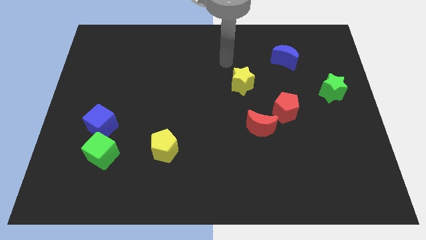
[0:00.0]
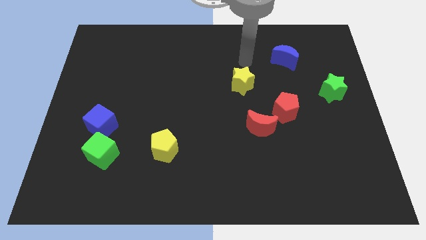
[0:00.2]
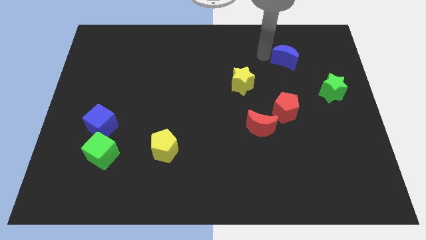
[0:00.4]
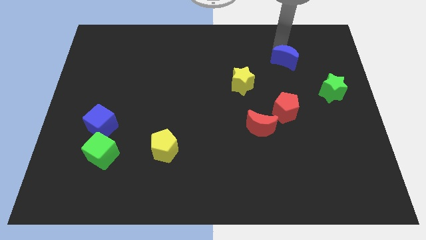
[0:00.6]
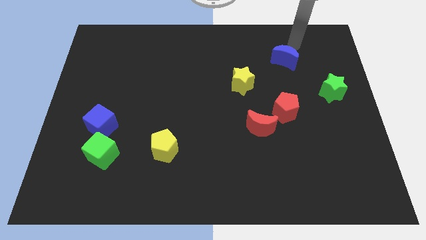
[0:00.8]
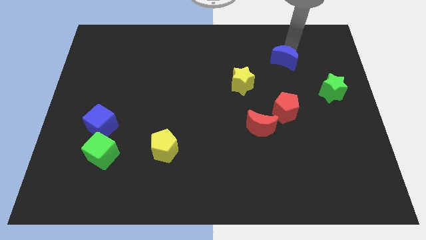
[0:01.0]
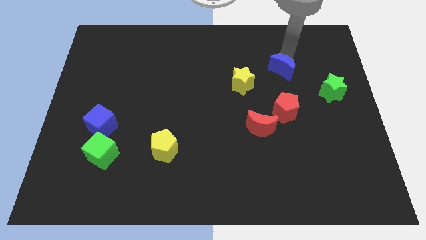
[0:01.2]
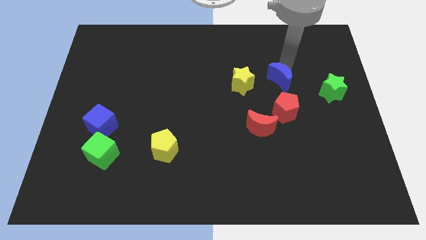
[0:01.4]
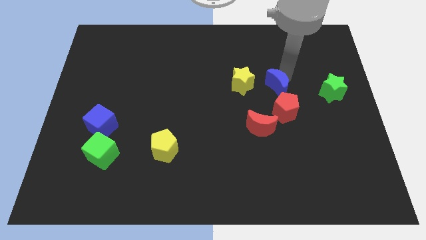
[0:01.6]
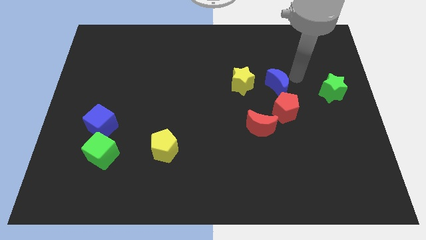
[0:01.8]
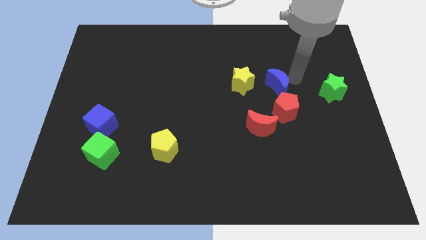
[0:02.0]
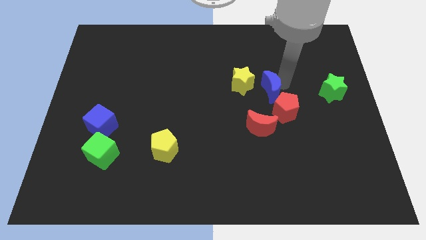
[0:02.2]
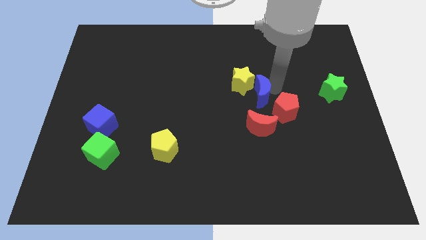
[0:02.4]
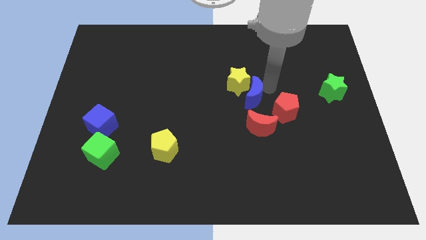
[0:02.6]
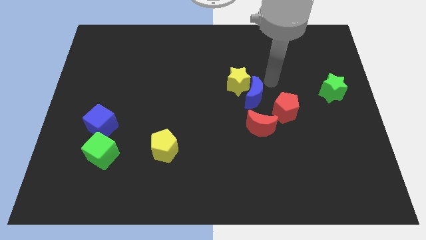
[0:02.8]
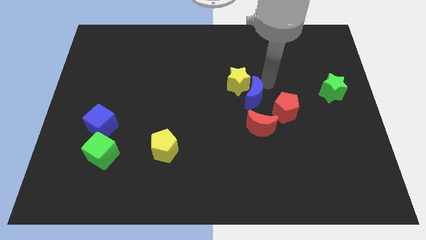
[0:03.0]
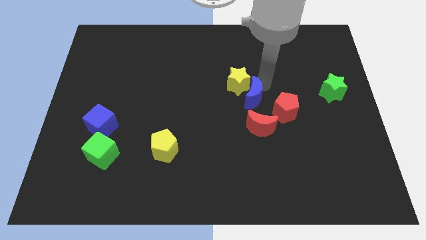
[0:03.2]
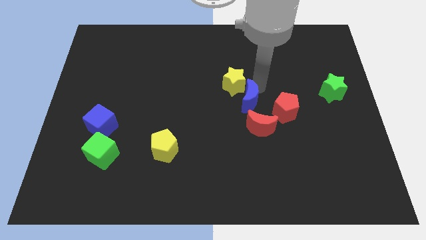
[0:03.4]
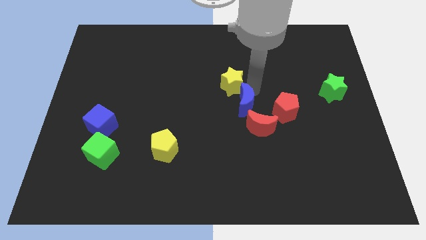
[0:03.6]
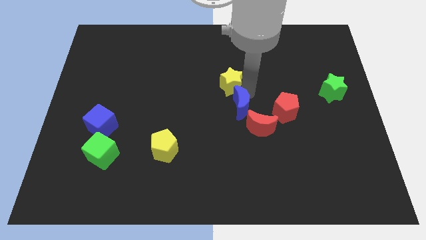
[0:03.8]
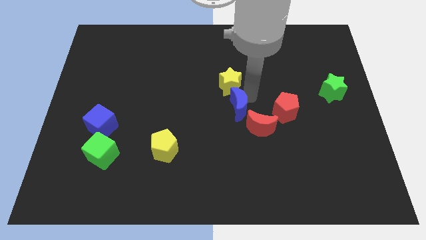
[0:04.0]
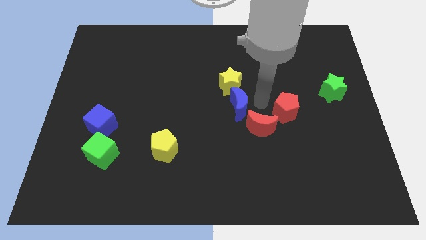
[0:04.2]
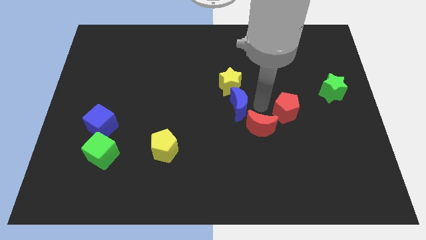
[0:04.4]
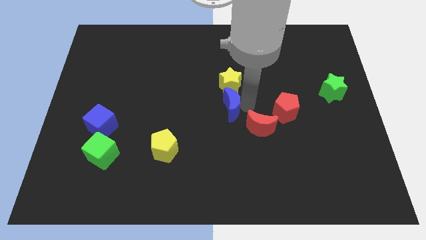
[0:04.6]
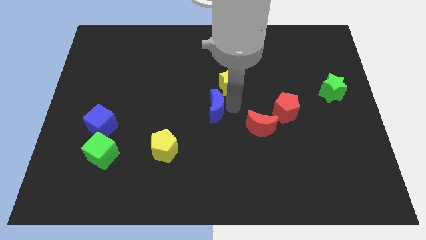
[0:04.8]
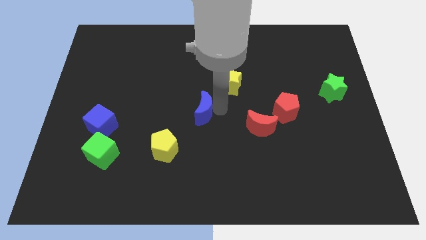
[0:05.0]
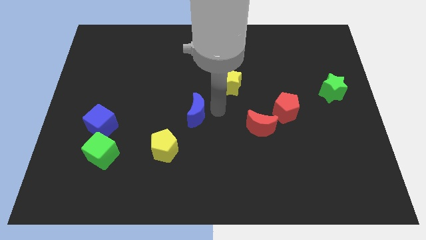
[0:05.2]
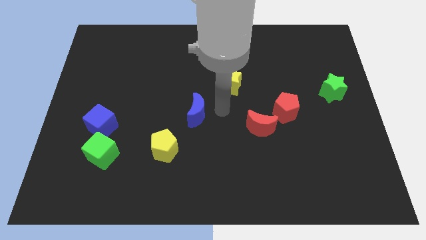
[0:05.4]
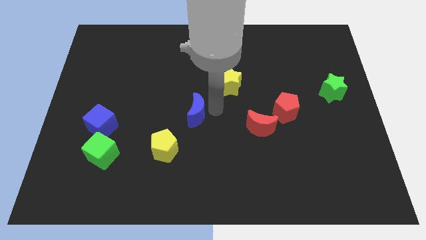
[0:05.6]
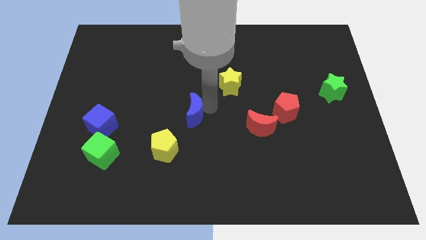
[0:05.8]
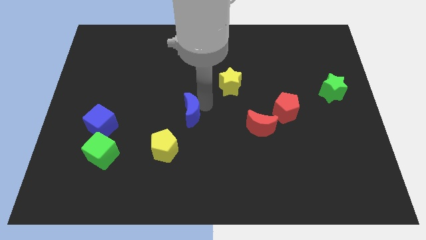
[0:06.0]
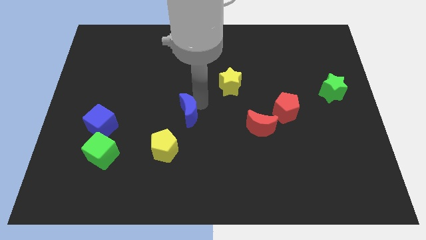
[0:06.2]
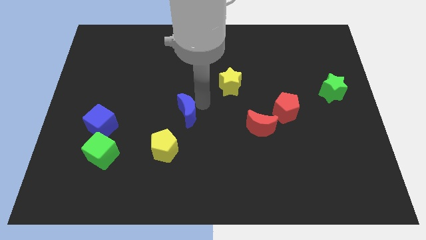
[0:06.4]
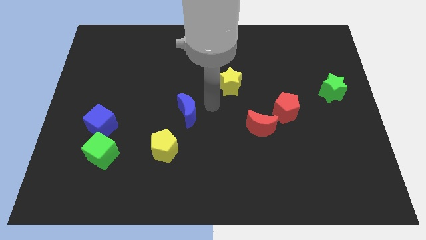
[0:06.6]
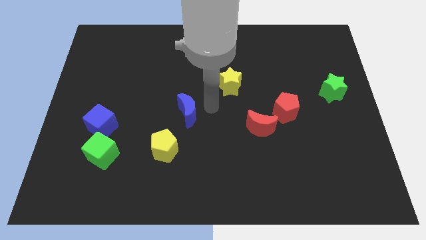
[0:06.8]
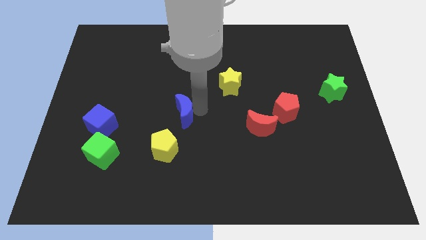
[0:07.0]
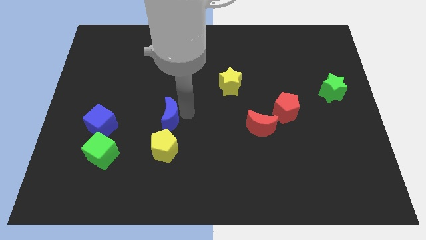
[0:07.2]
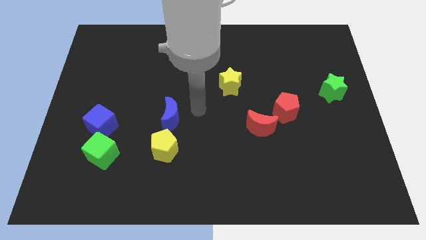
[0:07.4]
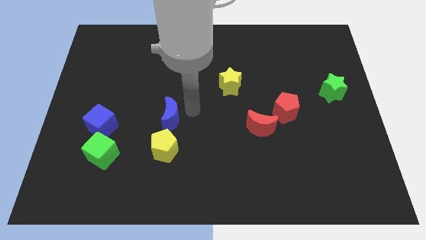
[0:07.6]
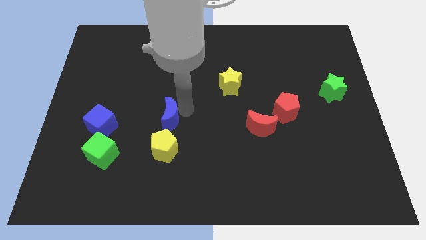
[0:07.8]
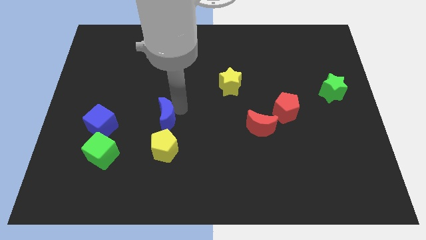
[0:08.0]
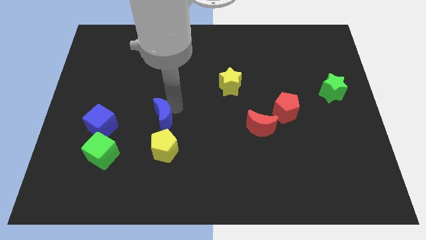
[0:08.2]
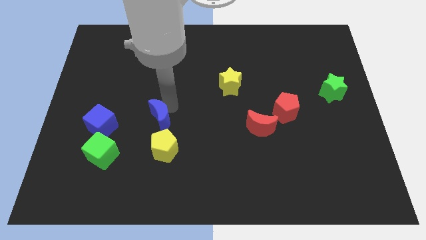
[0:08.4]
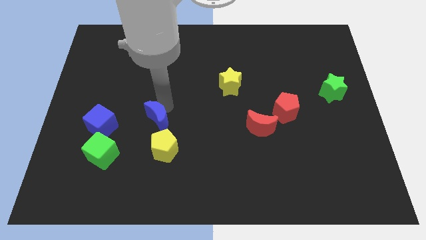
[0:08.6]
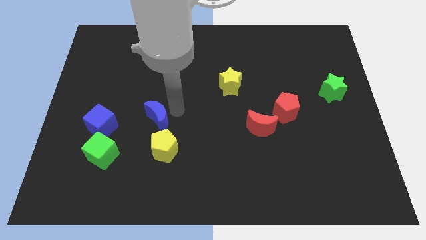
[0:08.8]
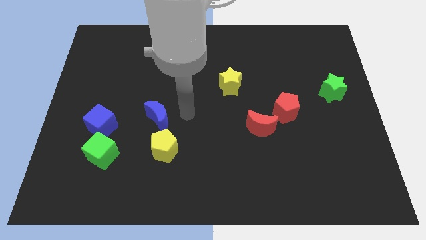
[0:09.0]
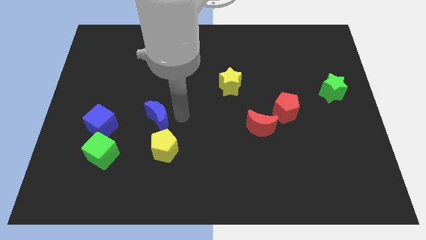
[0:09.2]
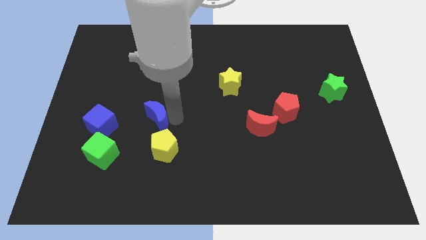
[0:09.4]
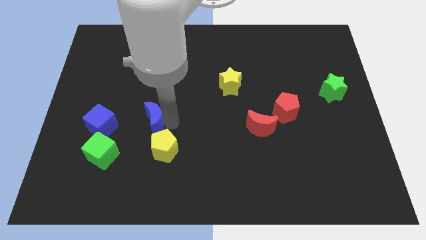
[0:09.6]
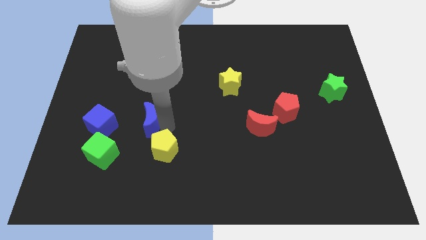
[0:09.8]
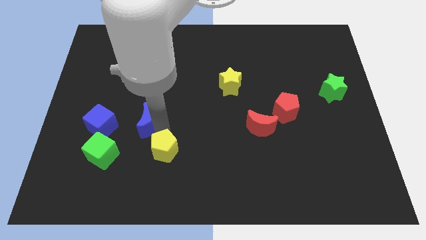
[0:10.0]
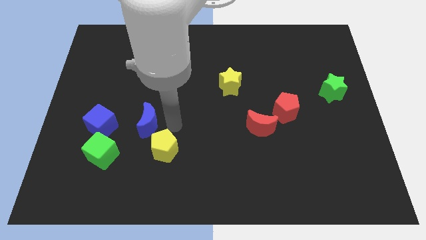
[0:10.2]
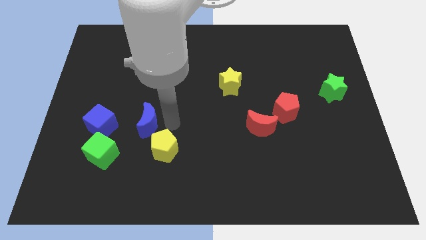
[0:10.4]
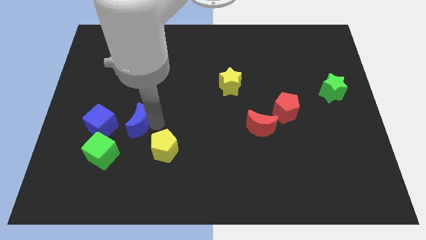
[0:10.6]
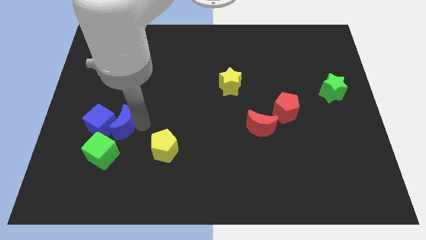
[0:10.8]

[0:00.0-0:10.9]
move the blue moon to the blue cube

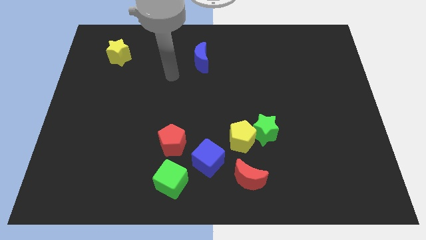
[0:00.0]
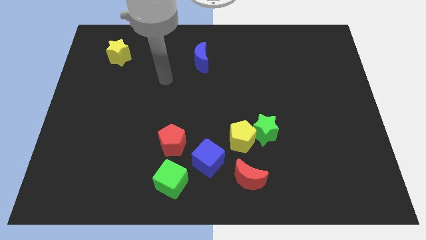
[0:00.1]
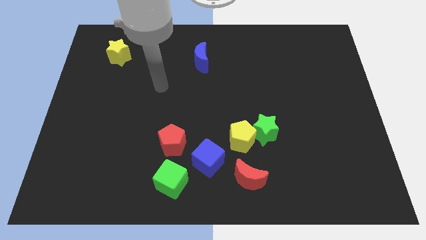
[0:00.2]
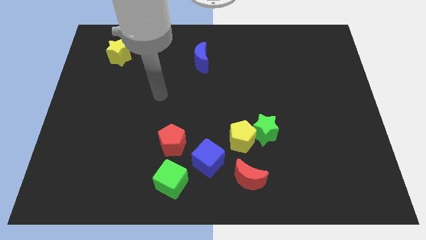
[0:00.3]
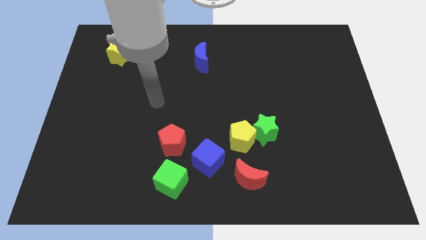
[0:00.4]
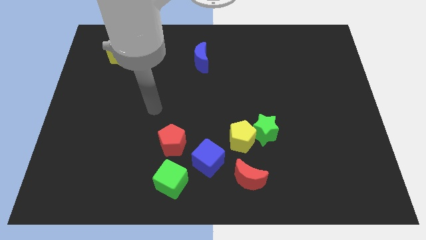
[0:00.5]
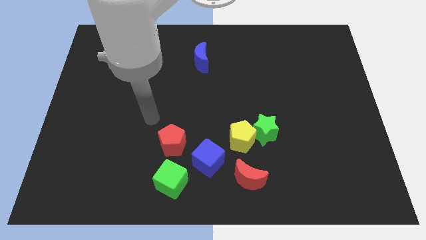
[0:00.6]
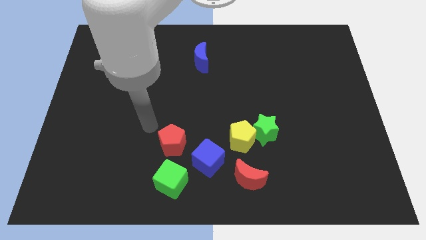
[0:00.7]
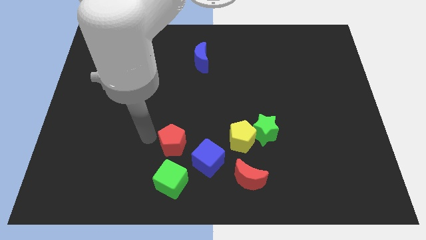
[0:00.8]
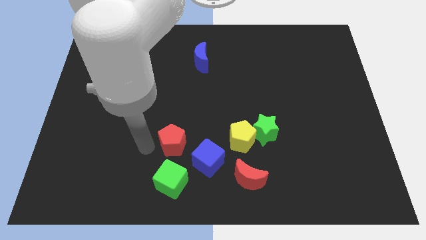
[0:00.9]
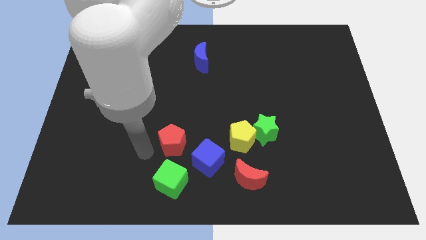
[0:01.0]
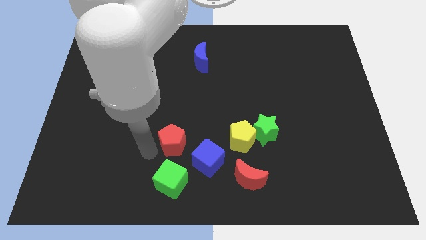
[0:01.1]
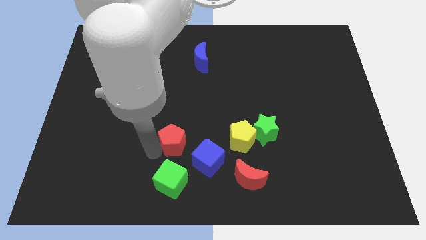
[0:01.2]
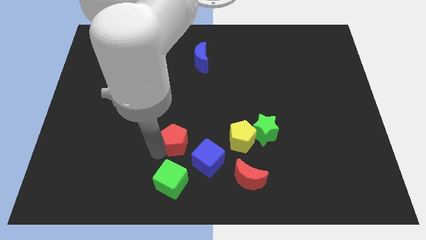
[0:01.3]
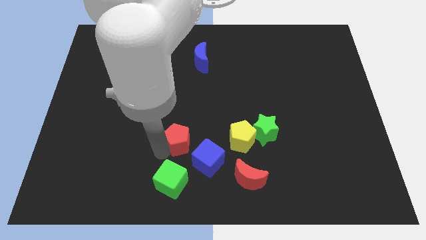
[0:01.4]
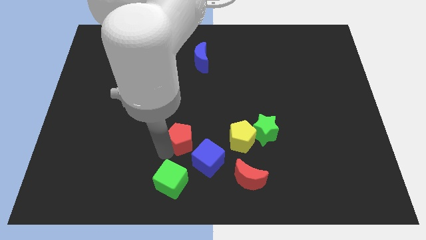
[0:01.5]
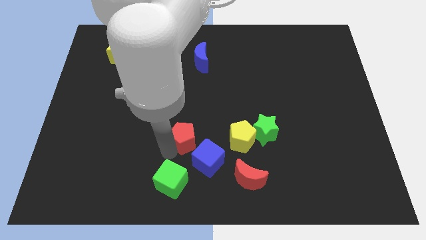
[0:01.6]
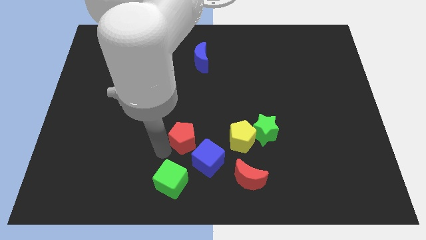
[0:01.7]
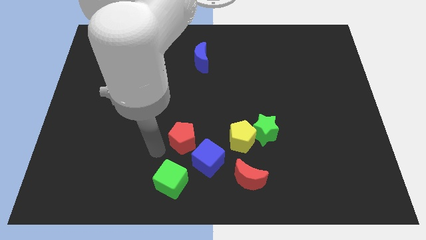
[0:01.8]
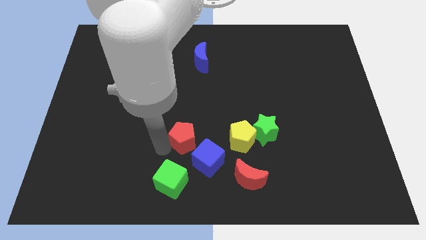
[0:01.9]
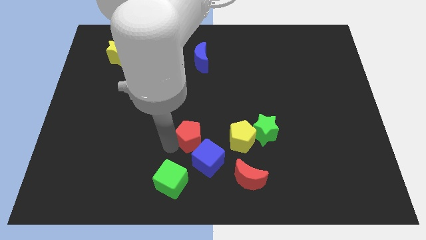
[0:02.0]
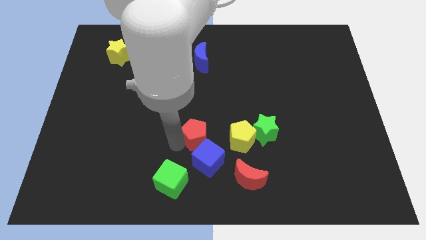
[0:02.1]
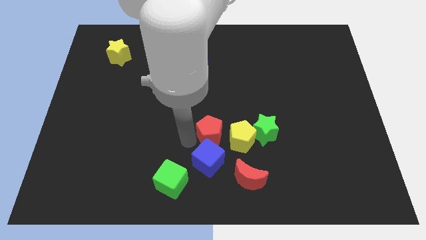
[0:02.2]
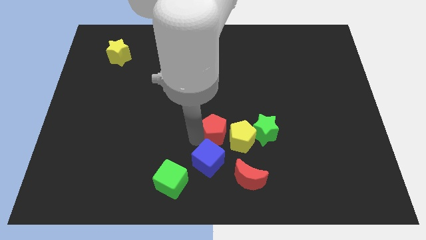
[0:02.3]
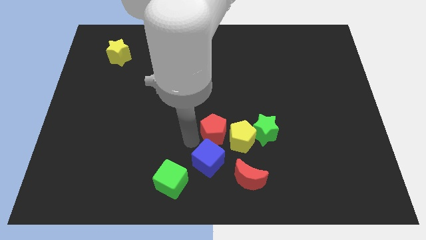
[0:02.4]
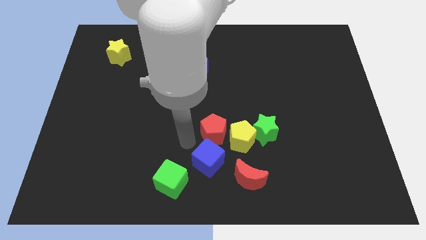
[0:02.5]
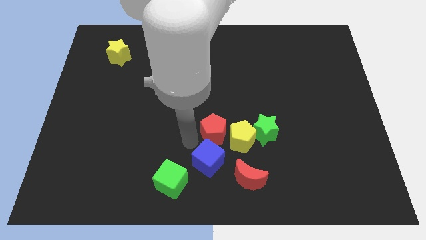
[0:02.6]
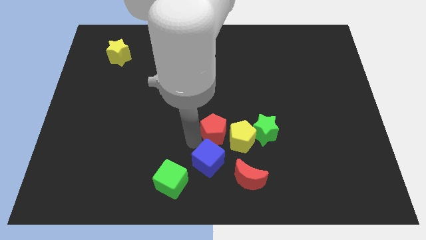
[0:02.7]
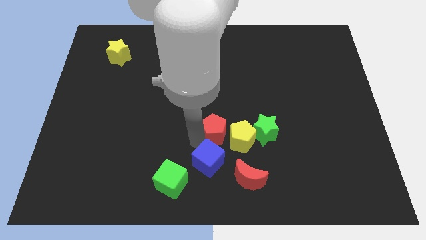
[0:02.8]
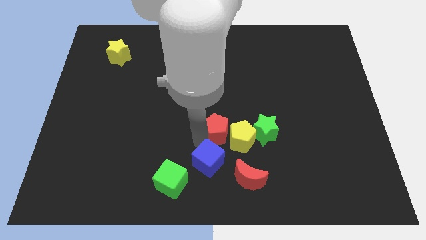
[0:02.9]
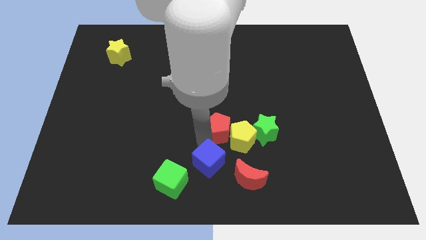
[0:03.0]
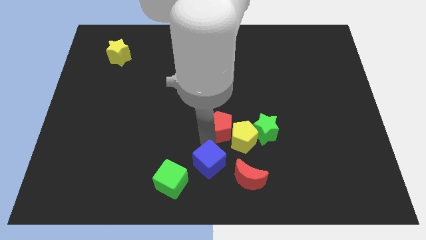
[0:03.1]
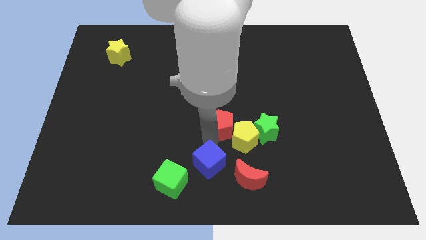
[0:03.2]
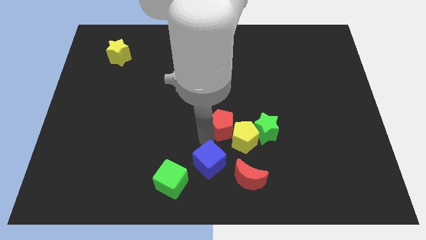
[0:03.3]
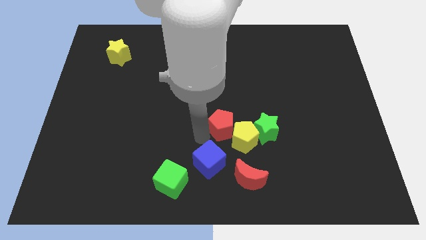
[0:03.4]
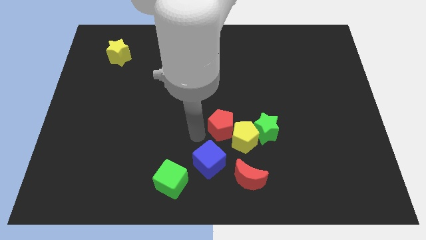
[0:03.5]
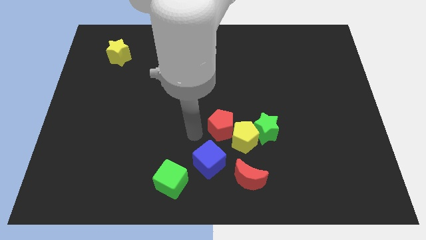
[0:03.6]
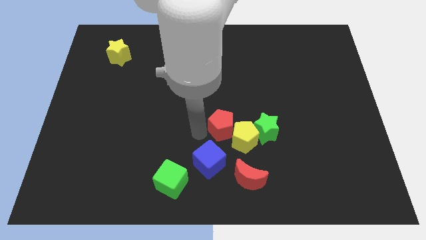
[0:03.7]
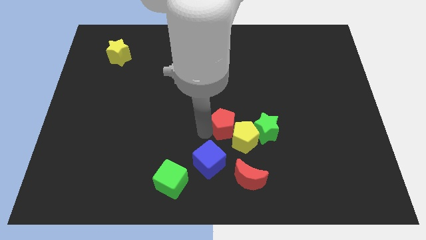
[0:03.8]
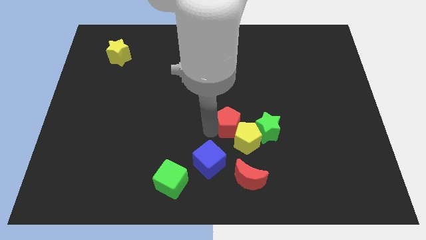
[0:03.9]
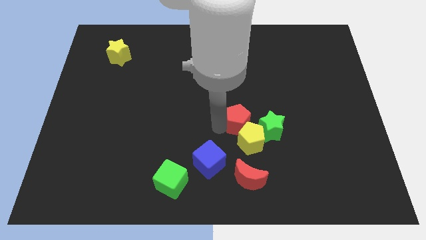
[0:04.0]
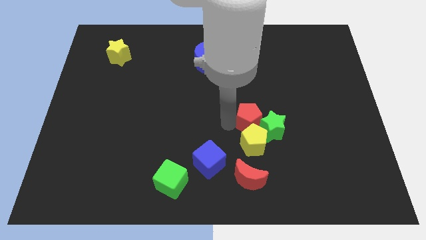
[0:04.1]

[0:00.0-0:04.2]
move the red pentagon close to the green star
